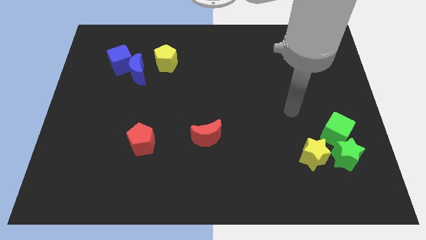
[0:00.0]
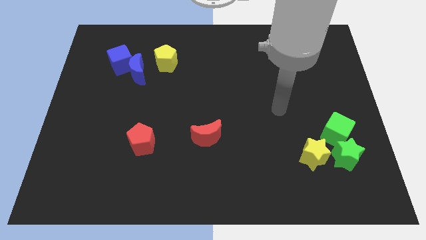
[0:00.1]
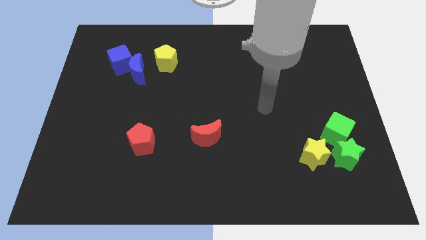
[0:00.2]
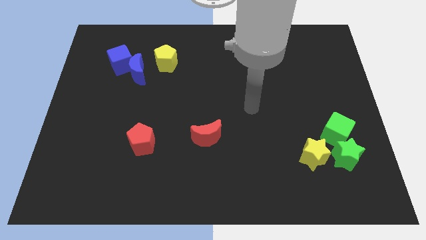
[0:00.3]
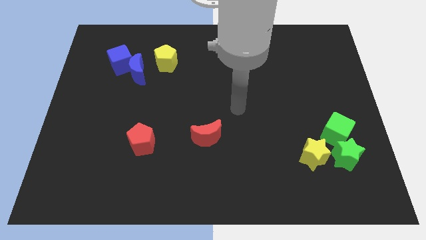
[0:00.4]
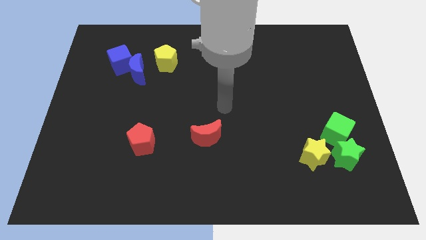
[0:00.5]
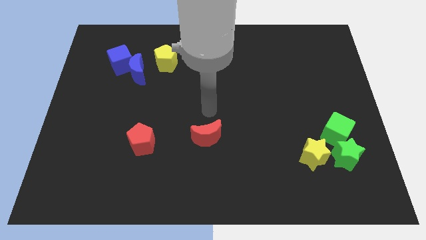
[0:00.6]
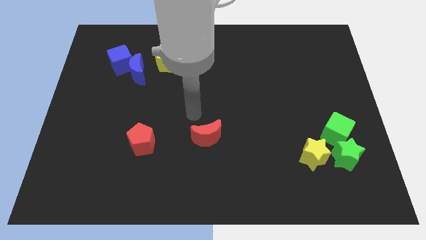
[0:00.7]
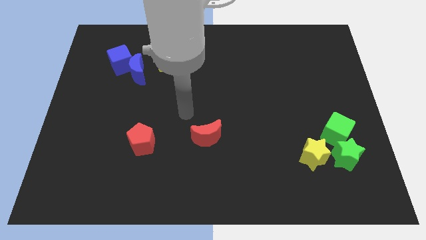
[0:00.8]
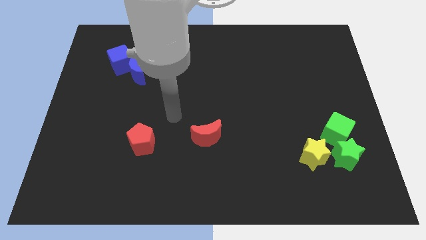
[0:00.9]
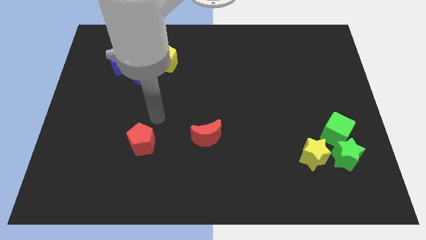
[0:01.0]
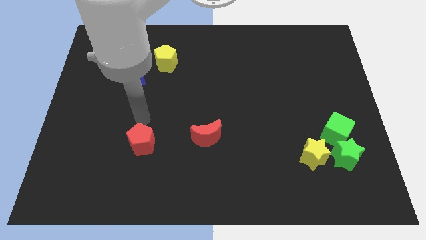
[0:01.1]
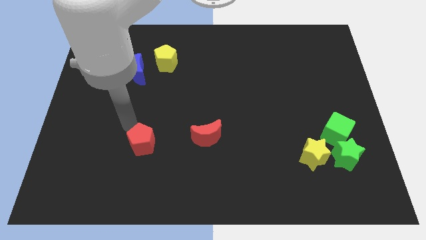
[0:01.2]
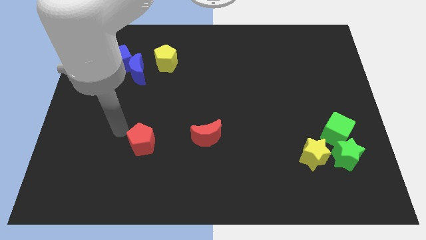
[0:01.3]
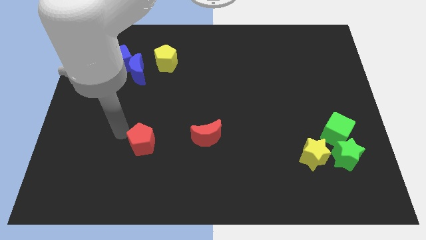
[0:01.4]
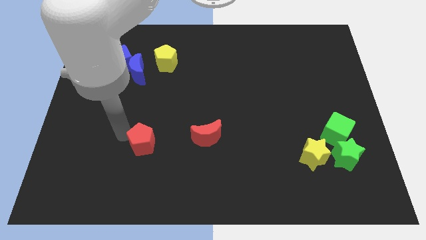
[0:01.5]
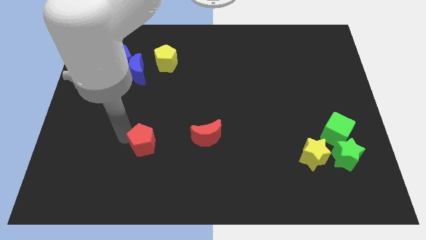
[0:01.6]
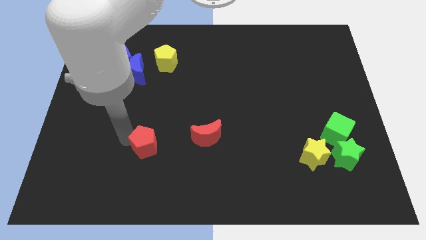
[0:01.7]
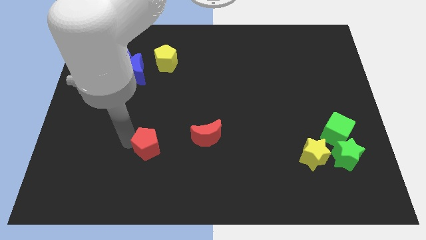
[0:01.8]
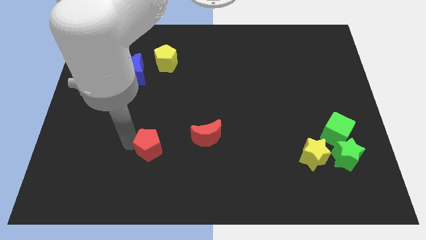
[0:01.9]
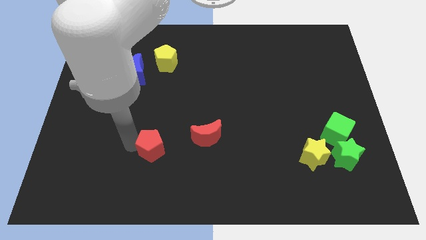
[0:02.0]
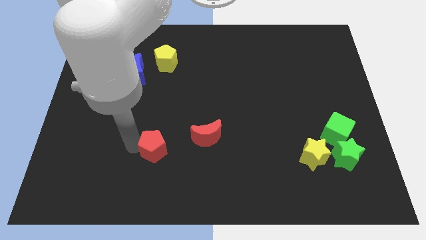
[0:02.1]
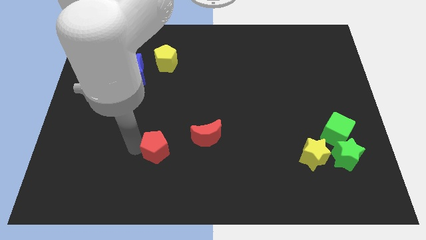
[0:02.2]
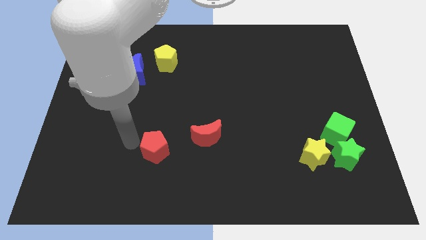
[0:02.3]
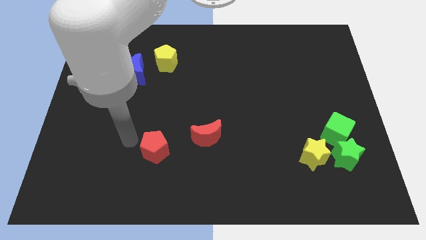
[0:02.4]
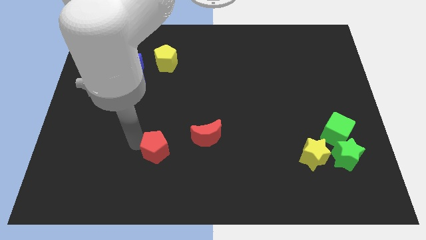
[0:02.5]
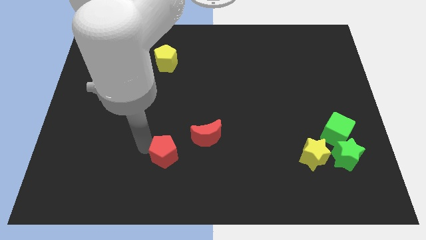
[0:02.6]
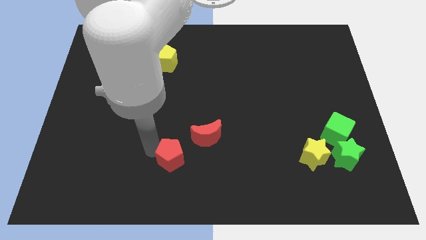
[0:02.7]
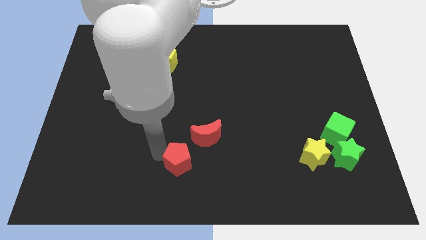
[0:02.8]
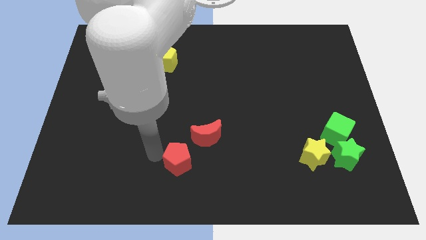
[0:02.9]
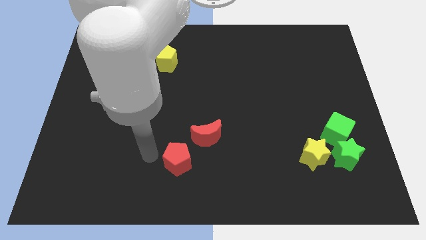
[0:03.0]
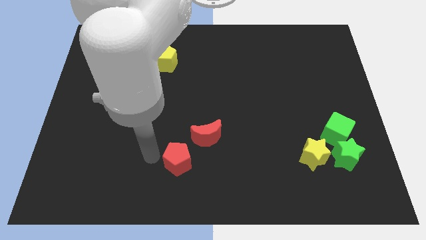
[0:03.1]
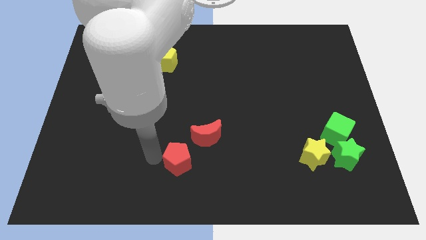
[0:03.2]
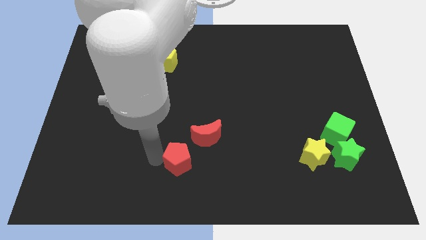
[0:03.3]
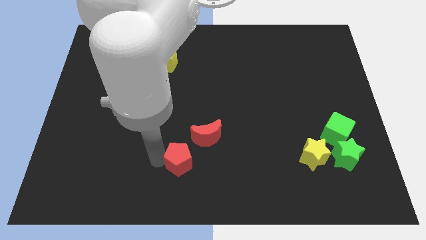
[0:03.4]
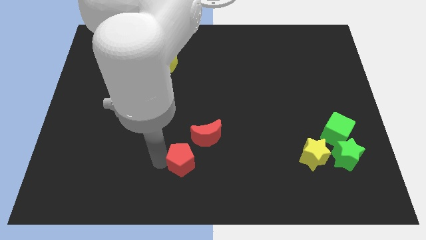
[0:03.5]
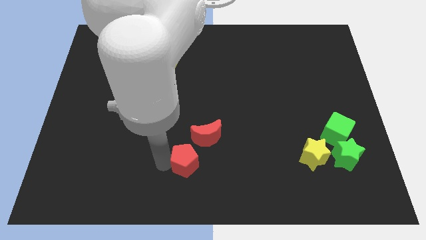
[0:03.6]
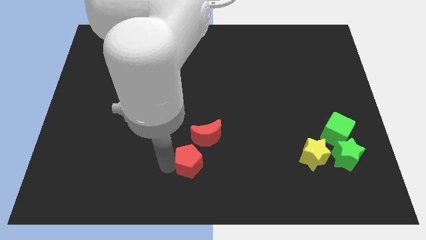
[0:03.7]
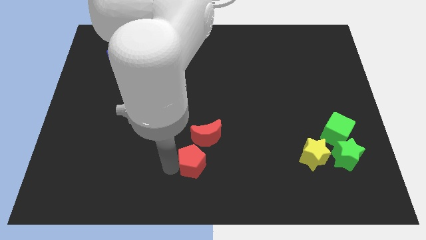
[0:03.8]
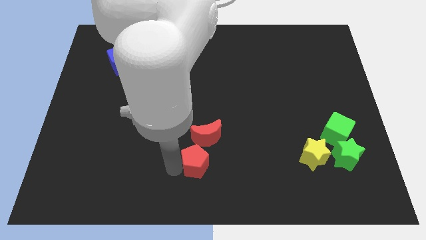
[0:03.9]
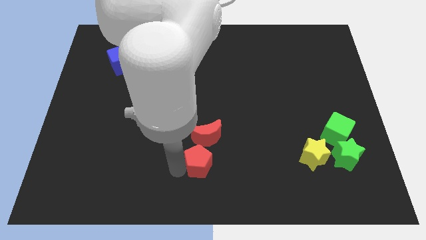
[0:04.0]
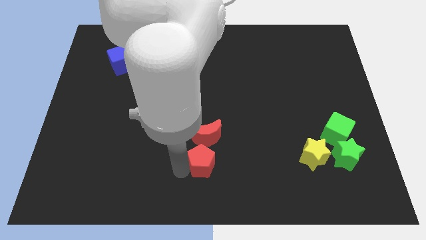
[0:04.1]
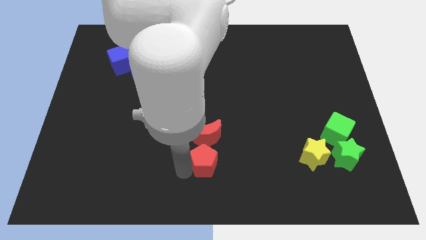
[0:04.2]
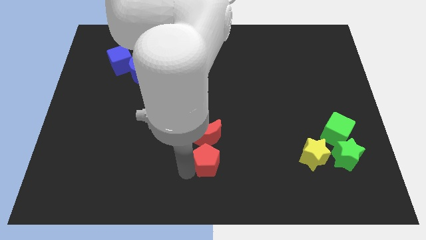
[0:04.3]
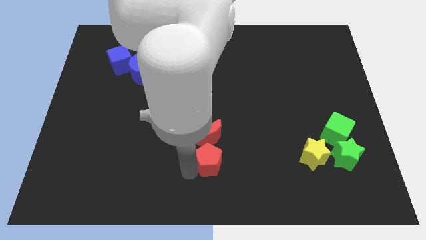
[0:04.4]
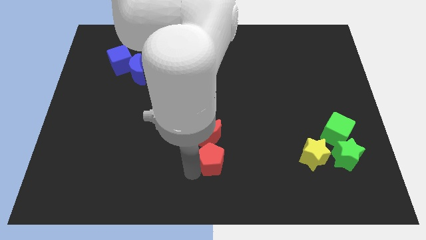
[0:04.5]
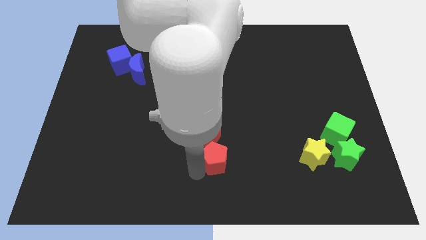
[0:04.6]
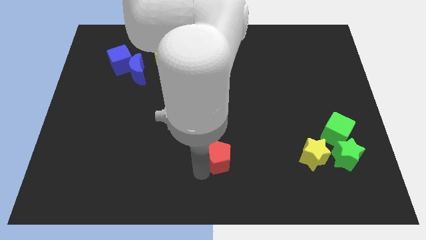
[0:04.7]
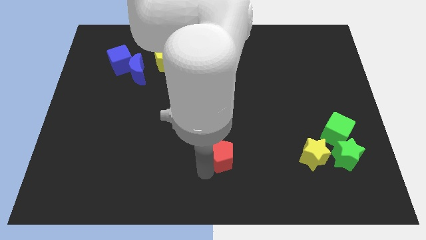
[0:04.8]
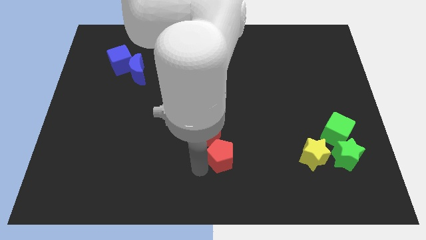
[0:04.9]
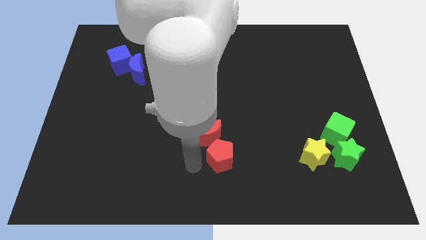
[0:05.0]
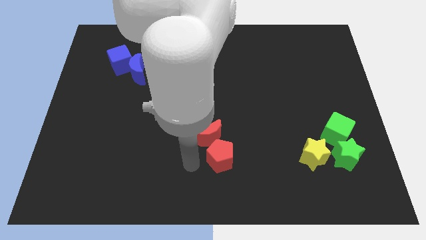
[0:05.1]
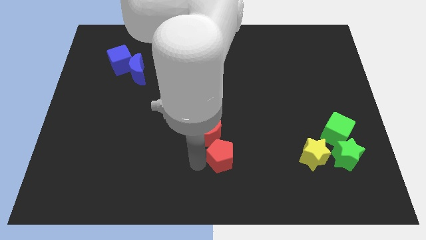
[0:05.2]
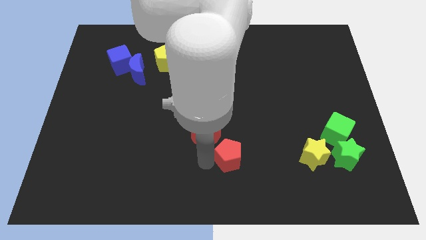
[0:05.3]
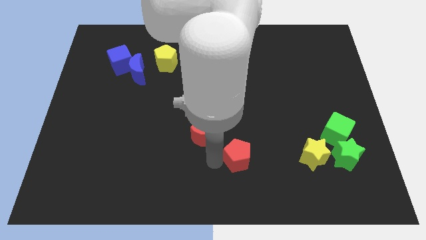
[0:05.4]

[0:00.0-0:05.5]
move the red pentagon to the right

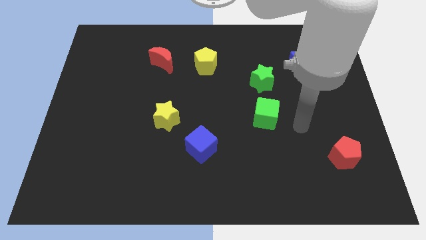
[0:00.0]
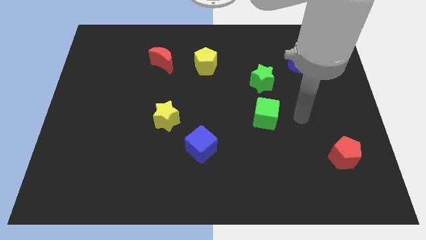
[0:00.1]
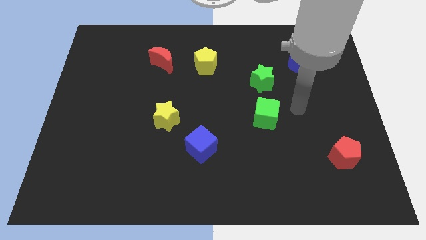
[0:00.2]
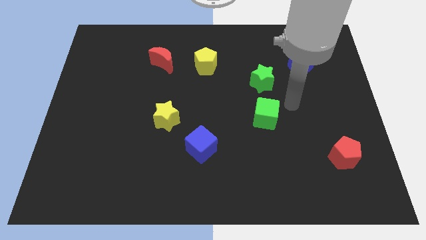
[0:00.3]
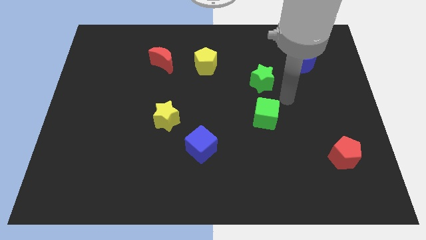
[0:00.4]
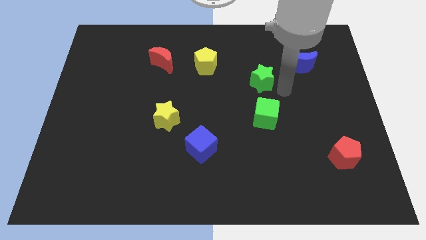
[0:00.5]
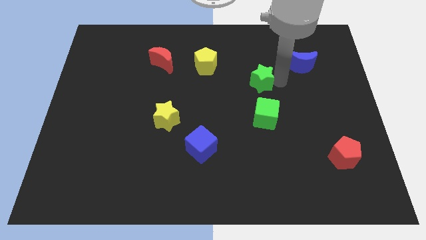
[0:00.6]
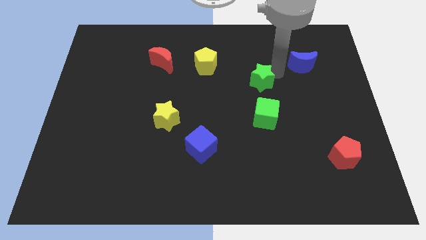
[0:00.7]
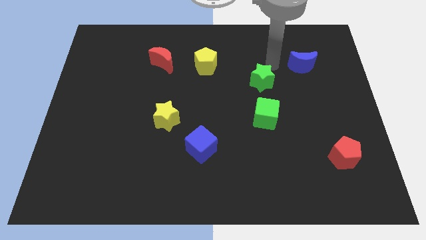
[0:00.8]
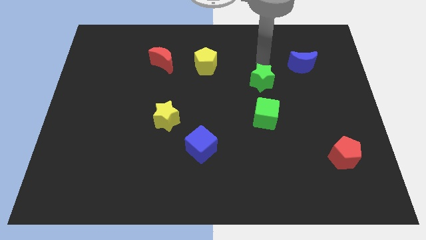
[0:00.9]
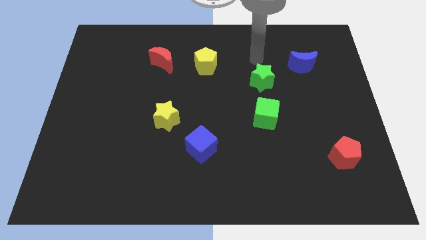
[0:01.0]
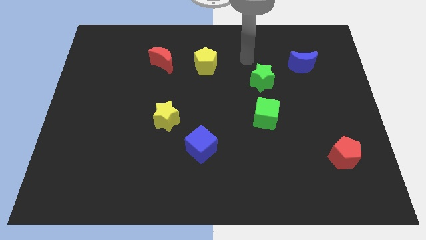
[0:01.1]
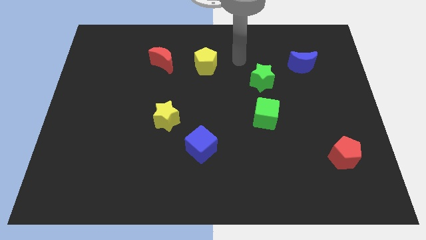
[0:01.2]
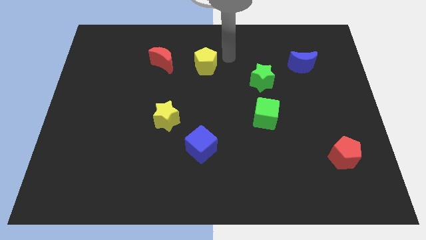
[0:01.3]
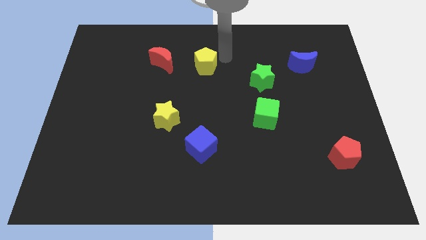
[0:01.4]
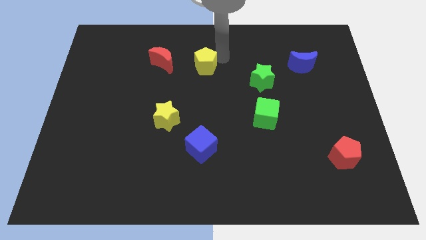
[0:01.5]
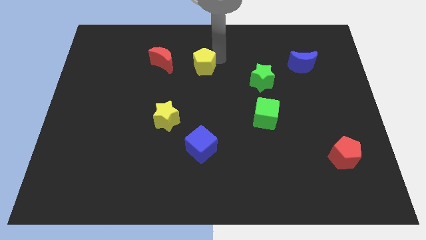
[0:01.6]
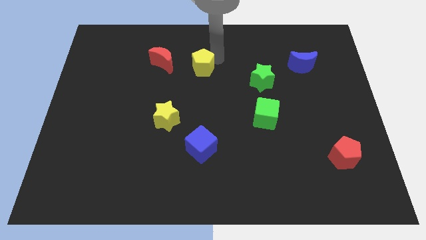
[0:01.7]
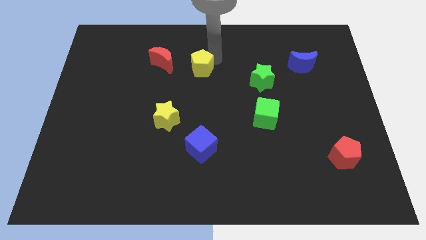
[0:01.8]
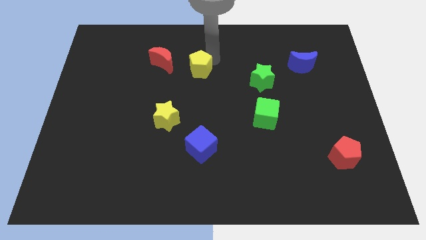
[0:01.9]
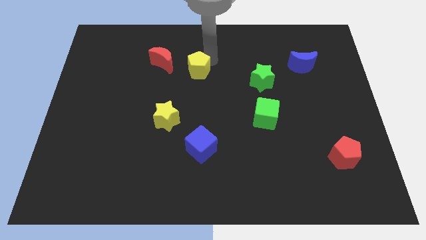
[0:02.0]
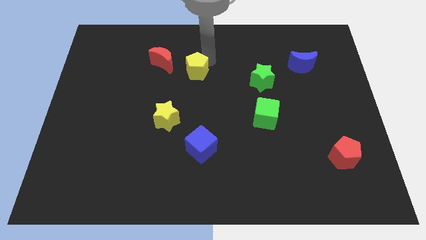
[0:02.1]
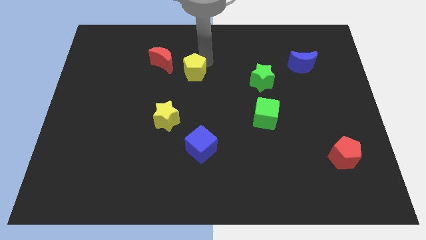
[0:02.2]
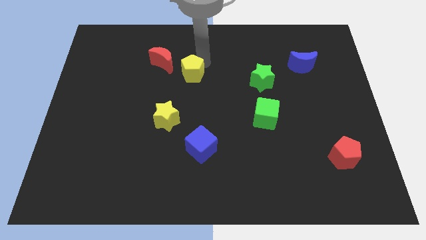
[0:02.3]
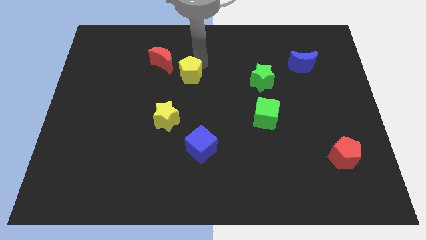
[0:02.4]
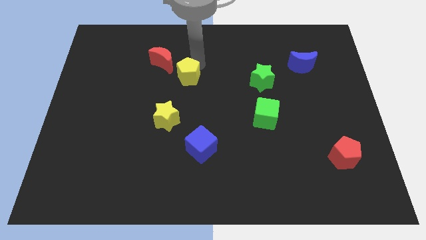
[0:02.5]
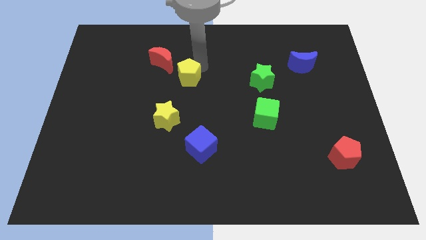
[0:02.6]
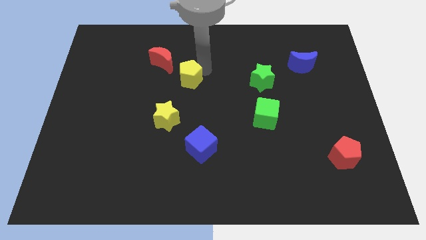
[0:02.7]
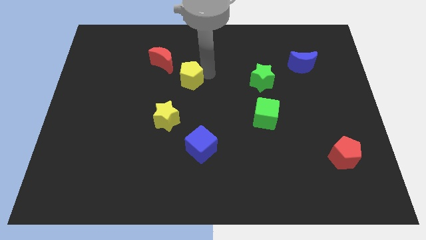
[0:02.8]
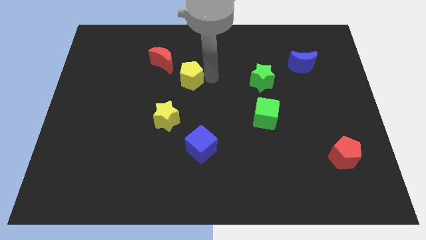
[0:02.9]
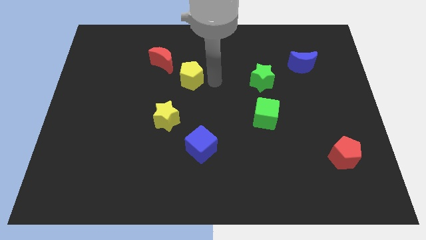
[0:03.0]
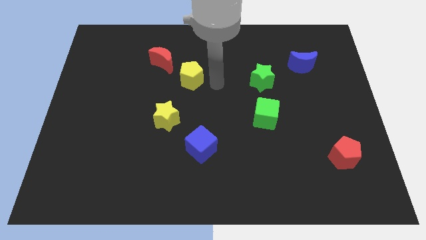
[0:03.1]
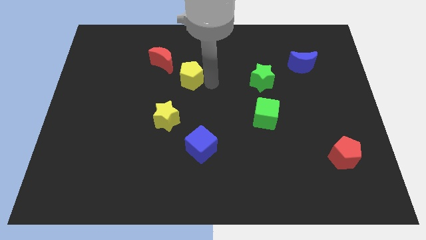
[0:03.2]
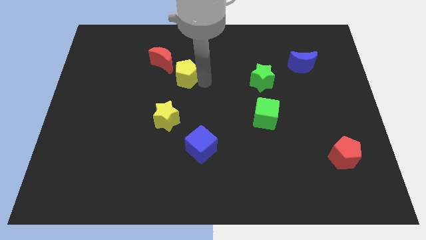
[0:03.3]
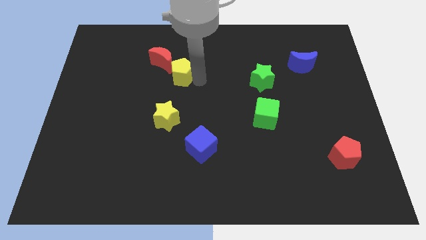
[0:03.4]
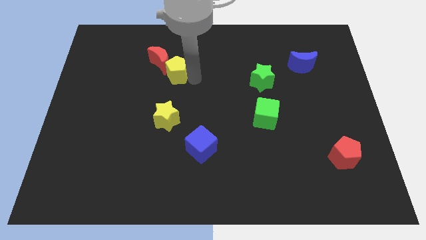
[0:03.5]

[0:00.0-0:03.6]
push the yellow pentagon slightly left
